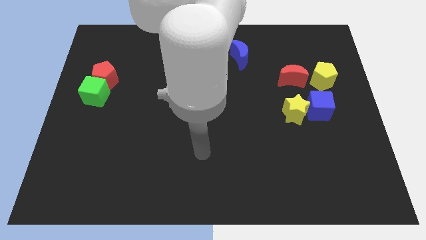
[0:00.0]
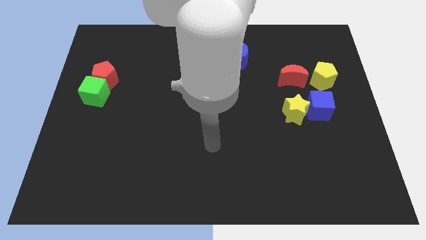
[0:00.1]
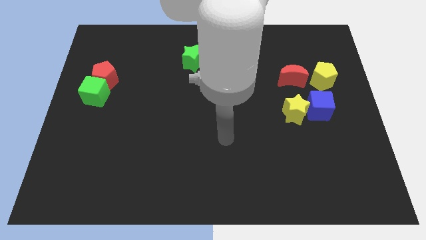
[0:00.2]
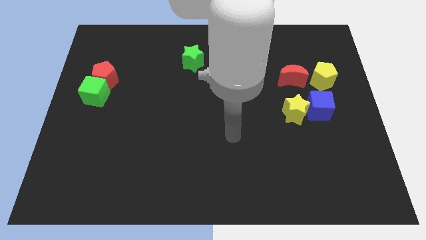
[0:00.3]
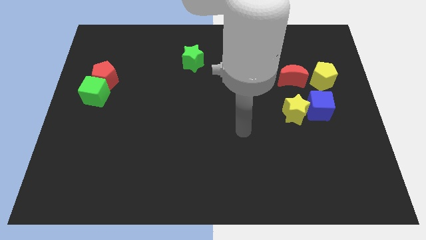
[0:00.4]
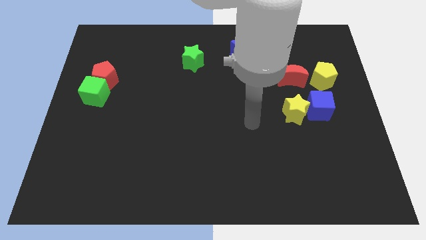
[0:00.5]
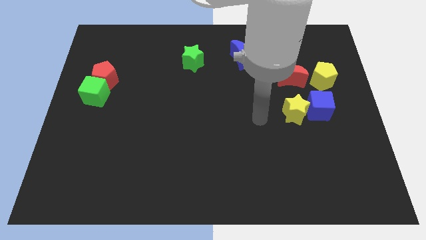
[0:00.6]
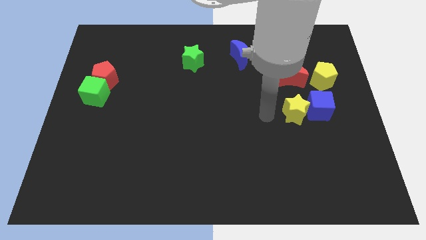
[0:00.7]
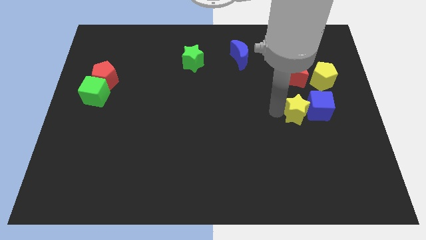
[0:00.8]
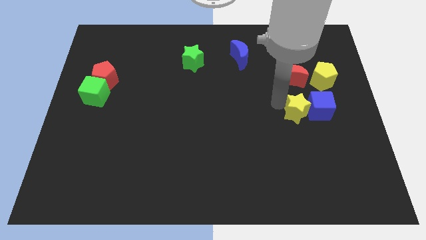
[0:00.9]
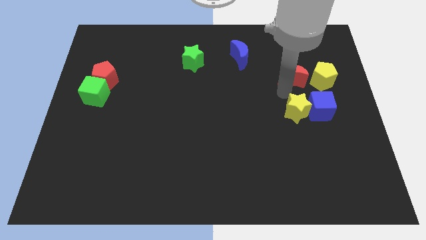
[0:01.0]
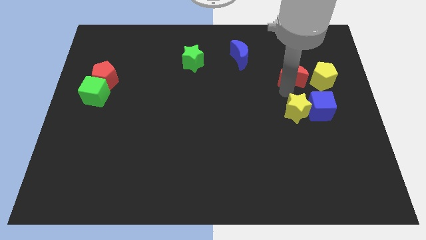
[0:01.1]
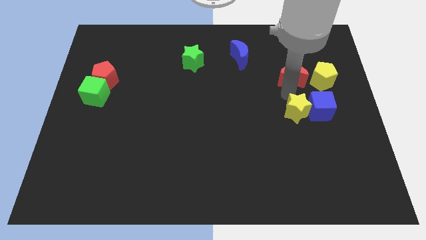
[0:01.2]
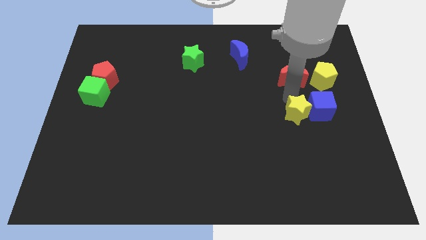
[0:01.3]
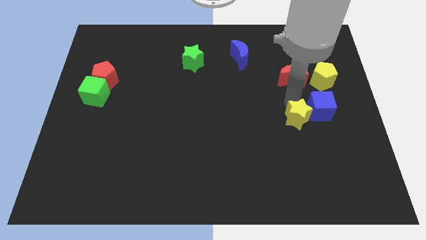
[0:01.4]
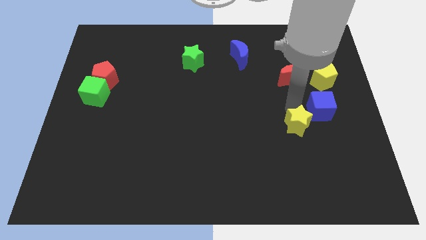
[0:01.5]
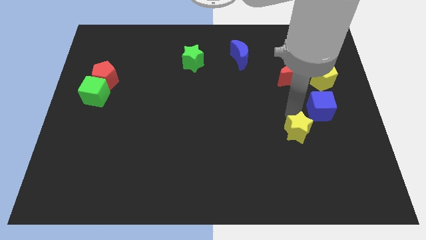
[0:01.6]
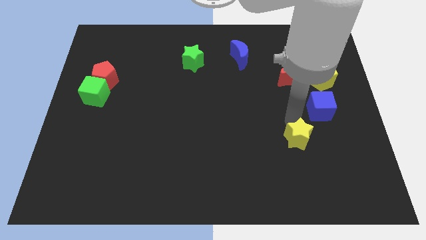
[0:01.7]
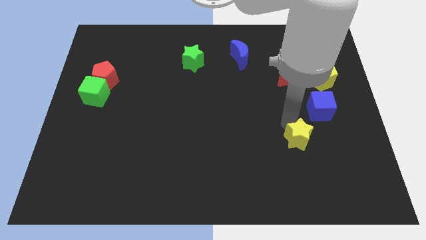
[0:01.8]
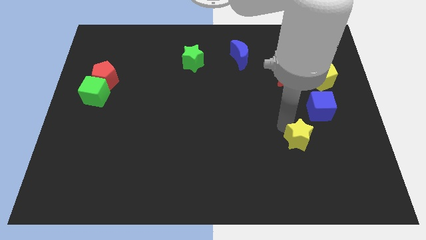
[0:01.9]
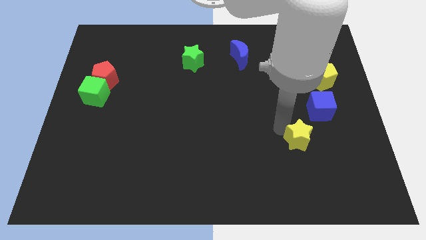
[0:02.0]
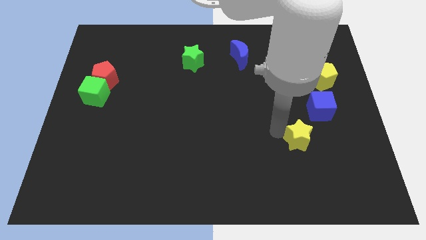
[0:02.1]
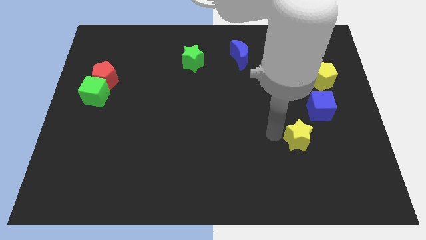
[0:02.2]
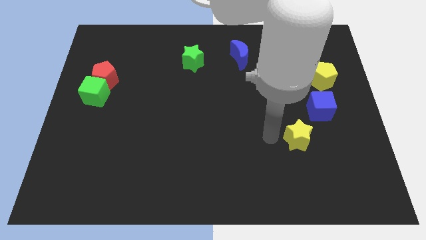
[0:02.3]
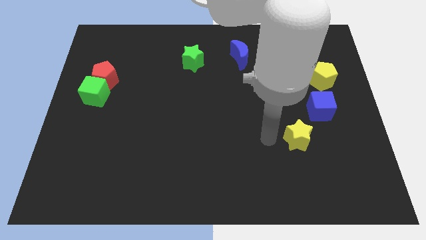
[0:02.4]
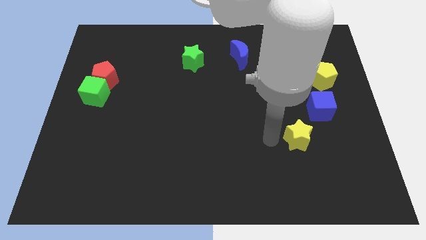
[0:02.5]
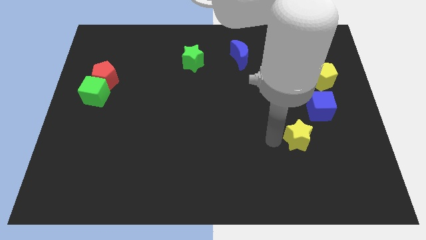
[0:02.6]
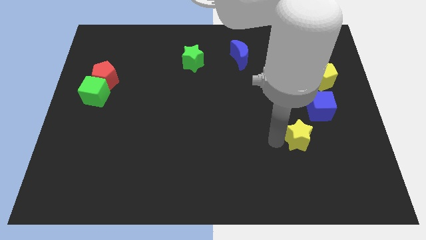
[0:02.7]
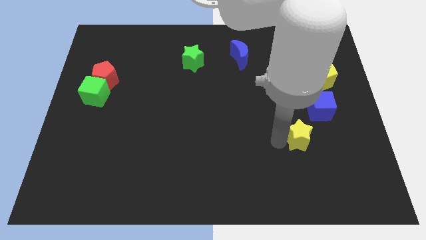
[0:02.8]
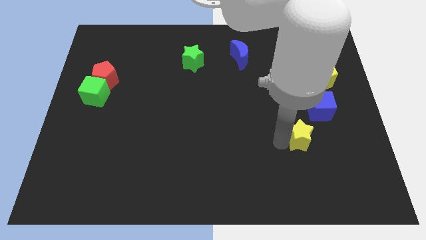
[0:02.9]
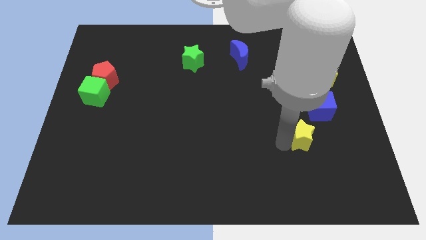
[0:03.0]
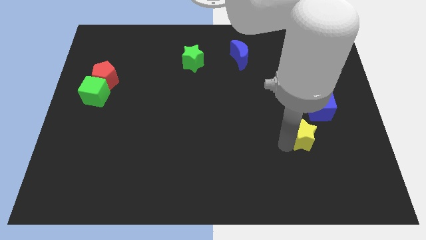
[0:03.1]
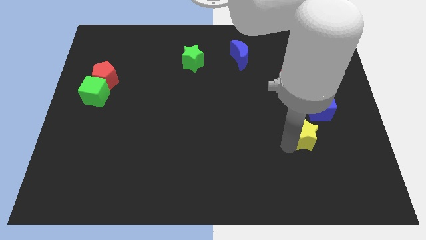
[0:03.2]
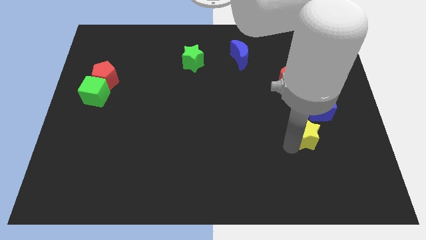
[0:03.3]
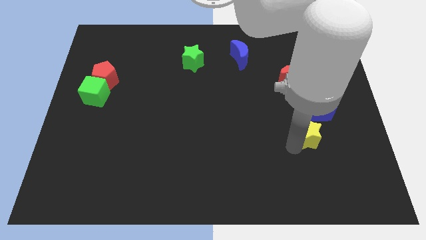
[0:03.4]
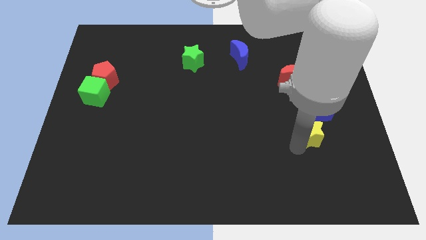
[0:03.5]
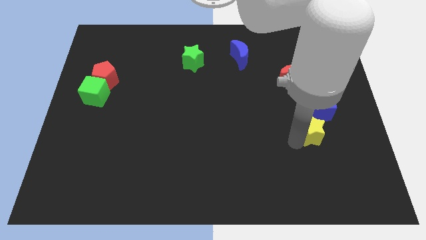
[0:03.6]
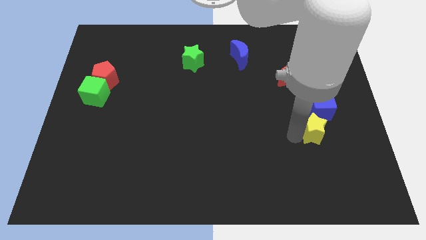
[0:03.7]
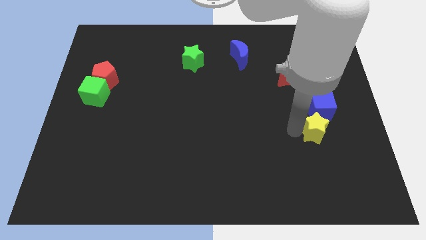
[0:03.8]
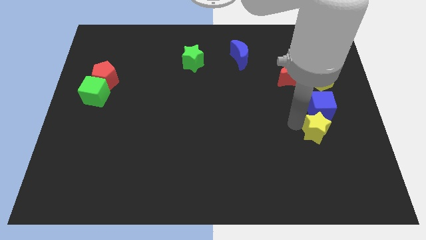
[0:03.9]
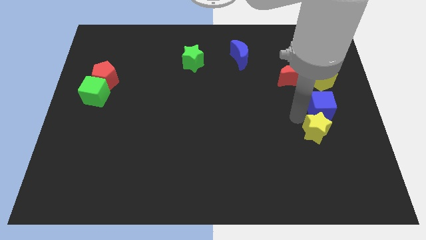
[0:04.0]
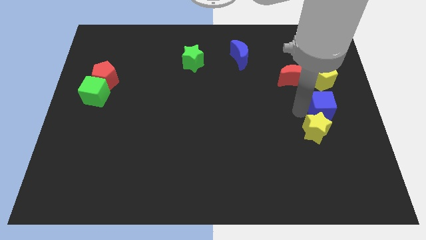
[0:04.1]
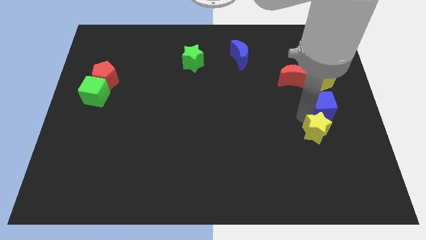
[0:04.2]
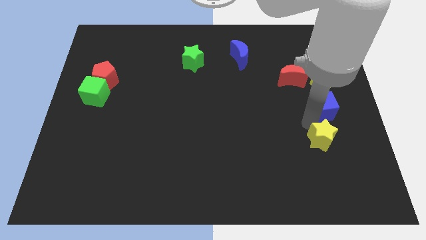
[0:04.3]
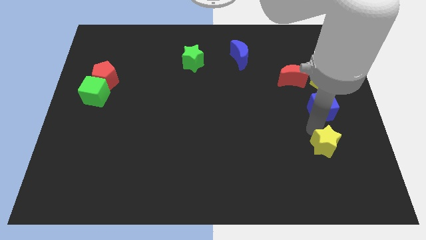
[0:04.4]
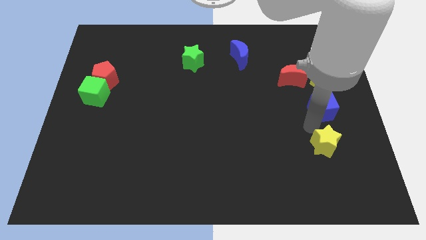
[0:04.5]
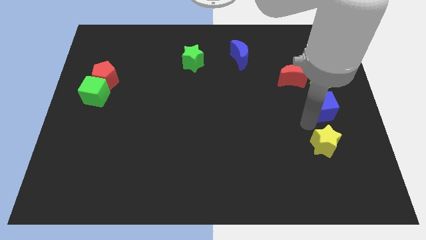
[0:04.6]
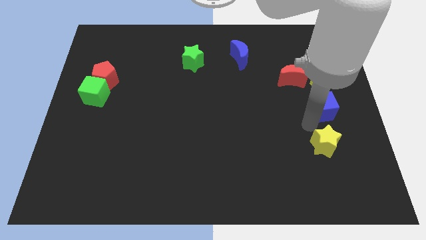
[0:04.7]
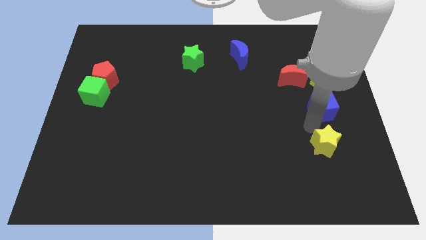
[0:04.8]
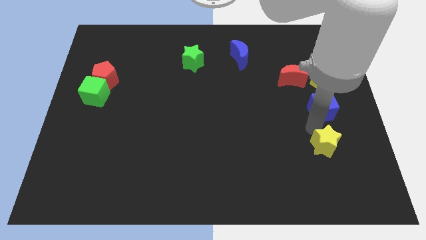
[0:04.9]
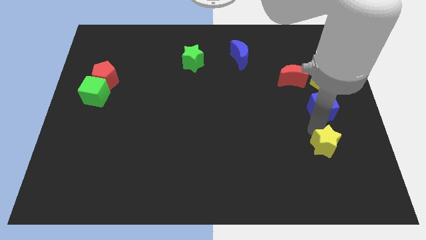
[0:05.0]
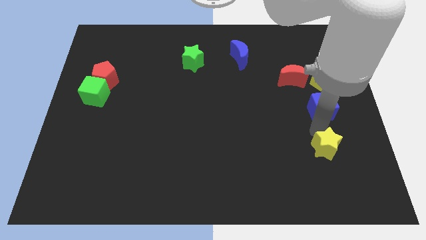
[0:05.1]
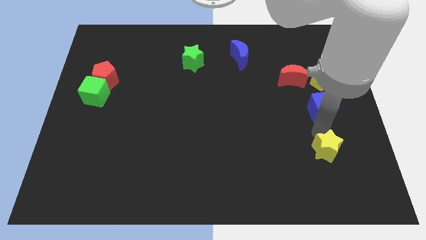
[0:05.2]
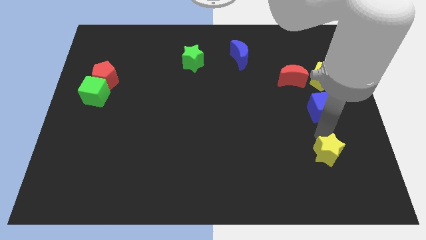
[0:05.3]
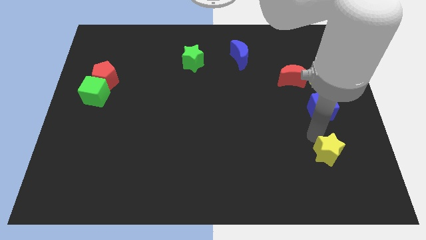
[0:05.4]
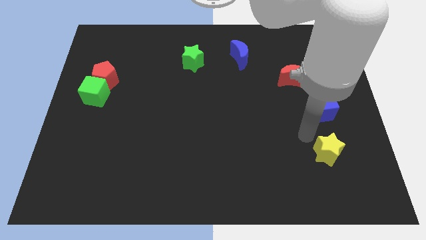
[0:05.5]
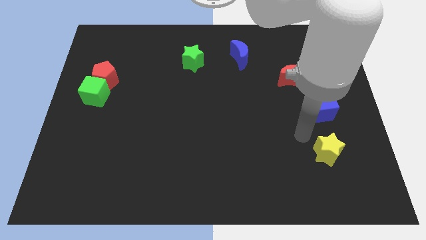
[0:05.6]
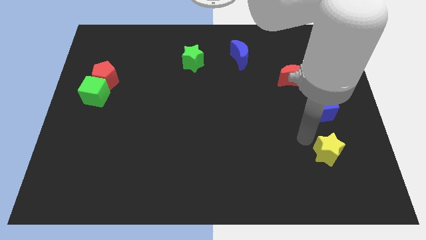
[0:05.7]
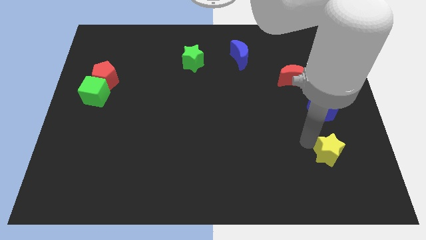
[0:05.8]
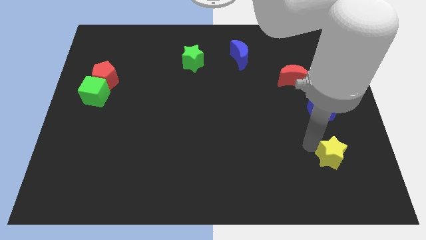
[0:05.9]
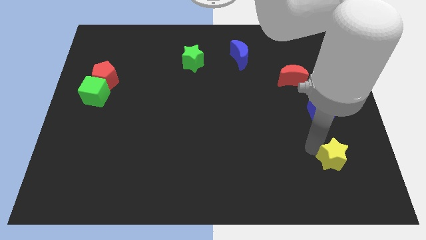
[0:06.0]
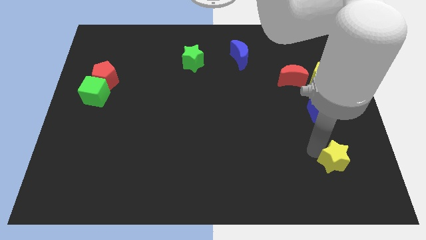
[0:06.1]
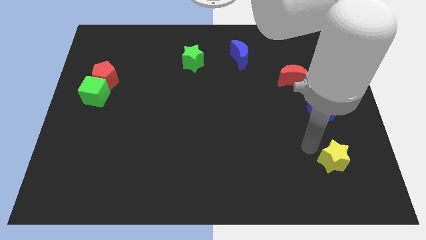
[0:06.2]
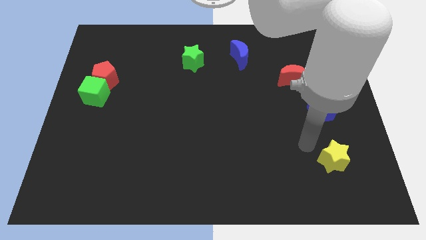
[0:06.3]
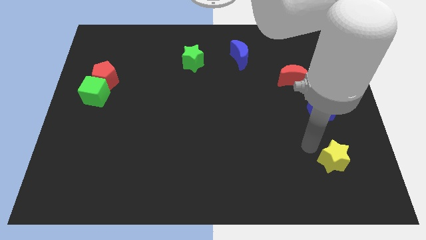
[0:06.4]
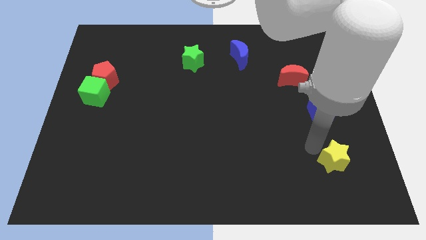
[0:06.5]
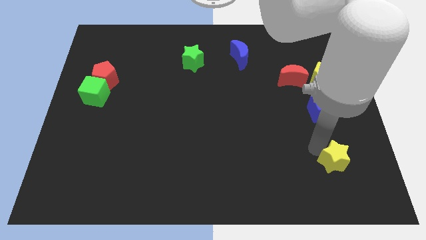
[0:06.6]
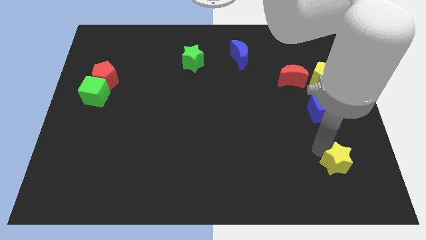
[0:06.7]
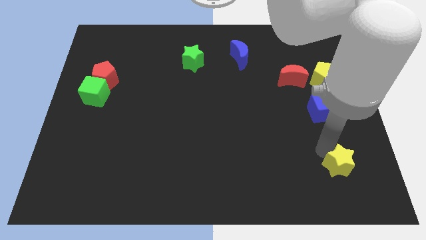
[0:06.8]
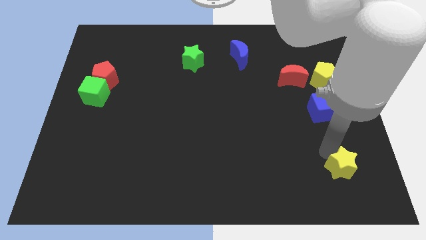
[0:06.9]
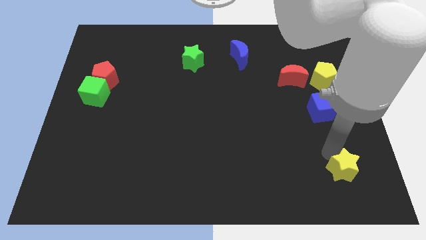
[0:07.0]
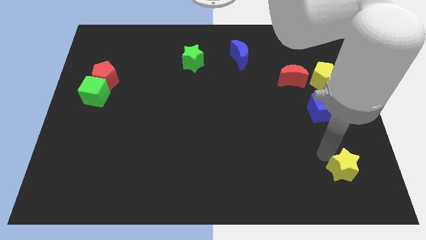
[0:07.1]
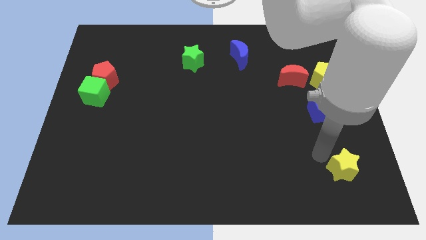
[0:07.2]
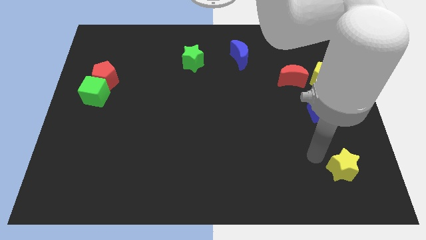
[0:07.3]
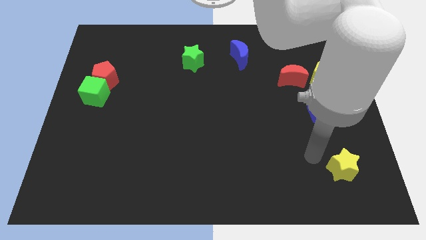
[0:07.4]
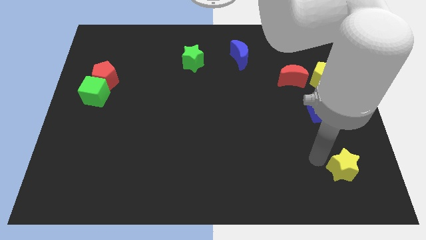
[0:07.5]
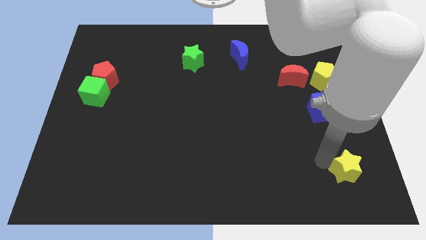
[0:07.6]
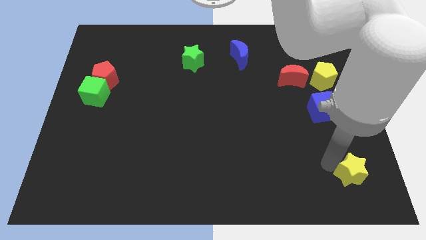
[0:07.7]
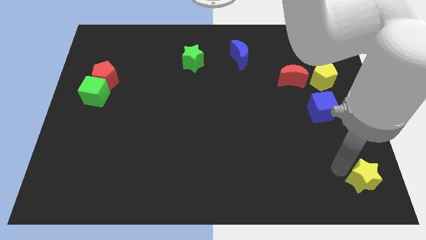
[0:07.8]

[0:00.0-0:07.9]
slide the yellow star to the lower right corner
